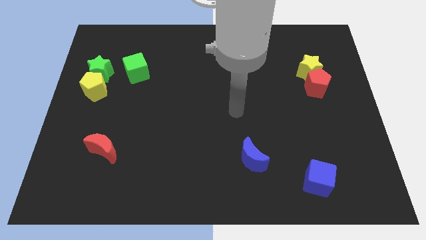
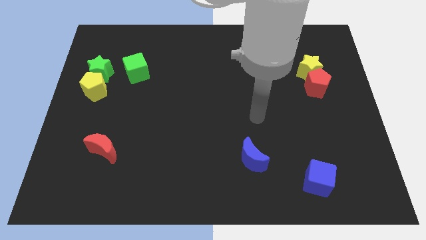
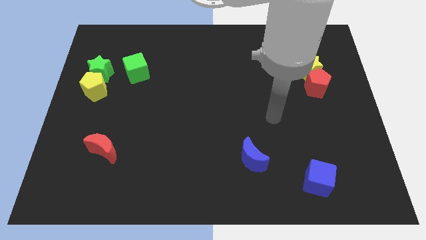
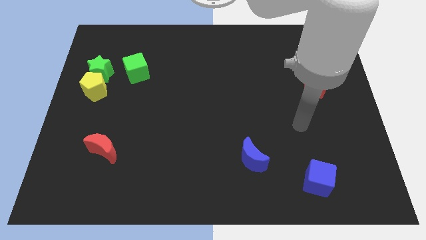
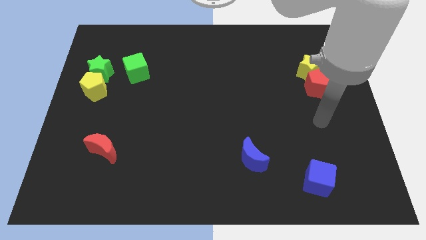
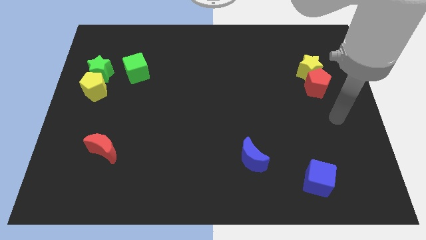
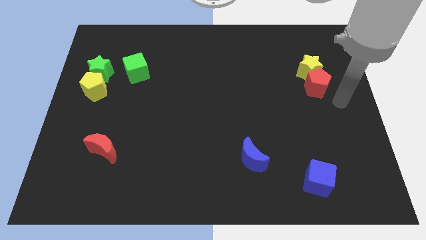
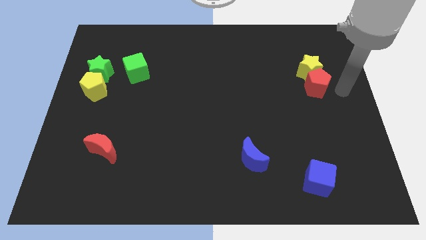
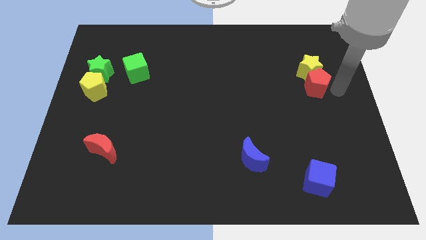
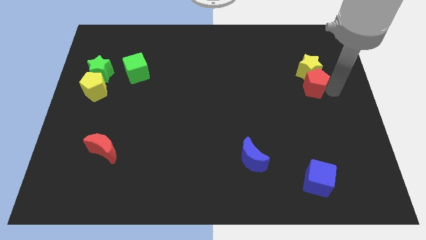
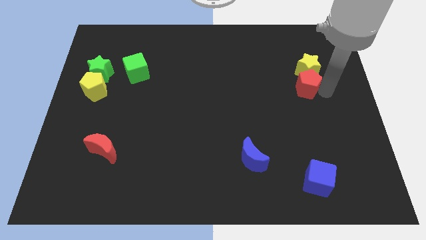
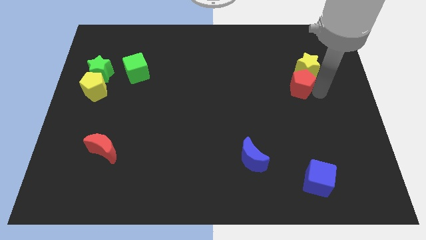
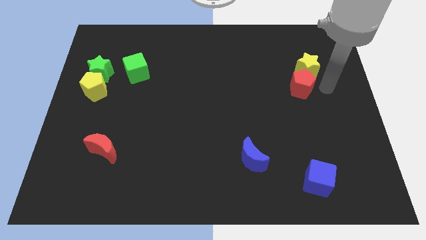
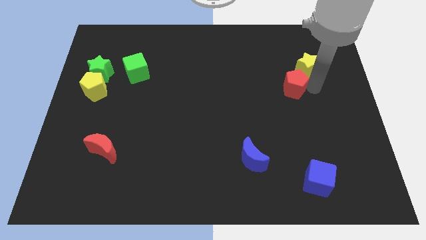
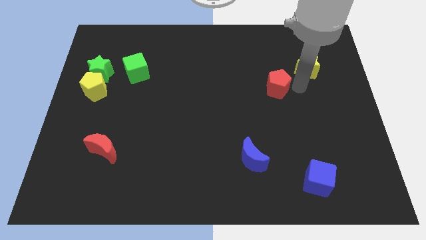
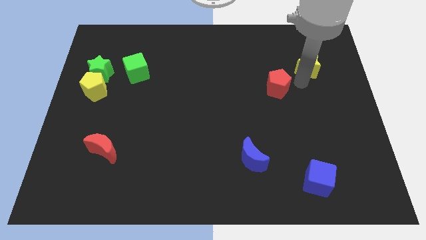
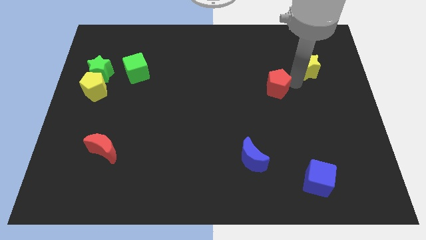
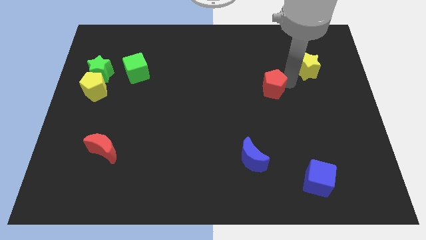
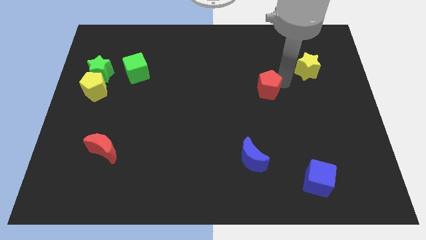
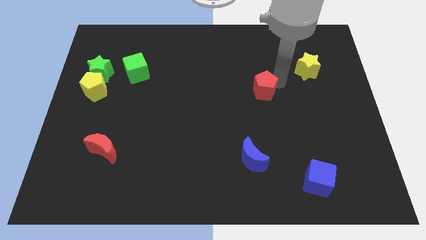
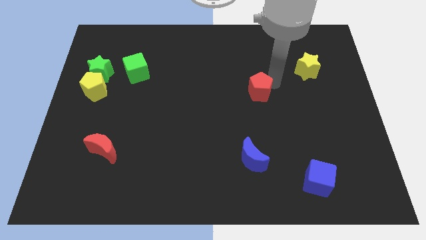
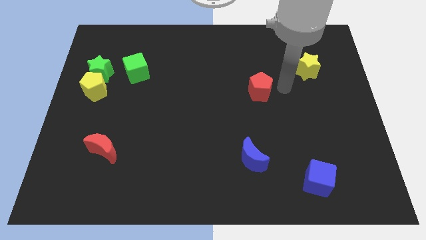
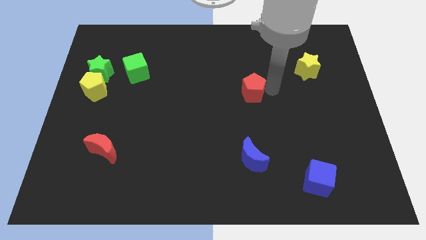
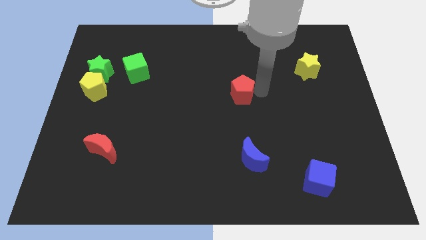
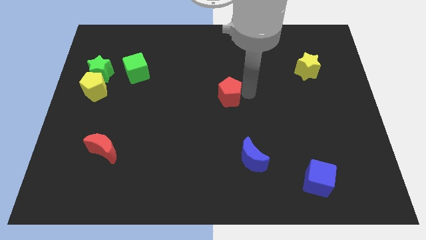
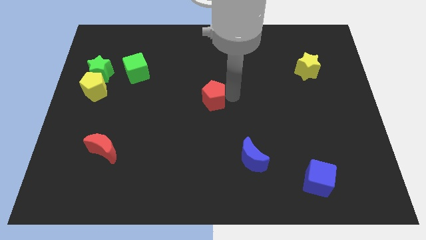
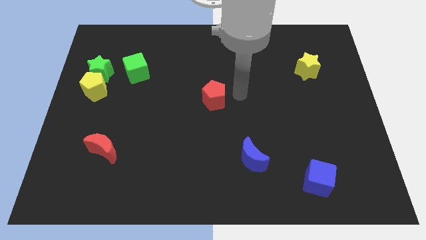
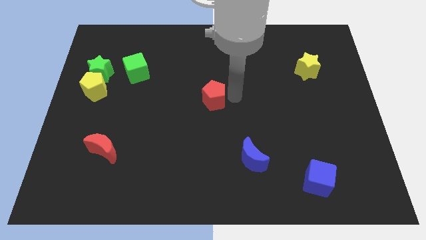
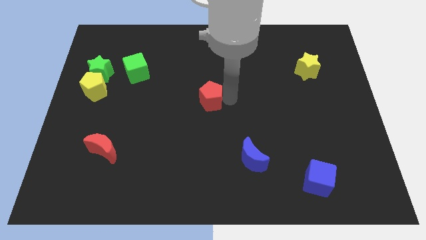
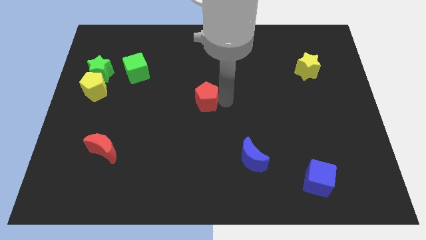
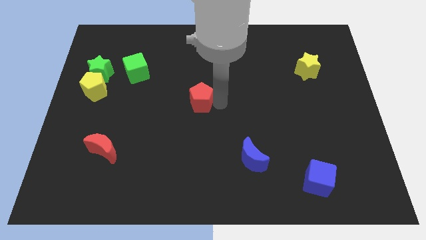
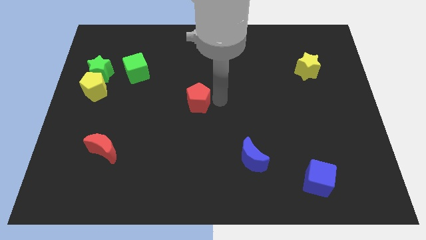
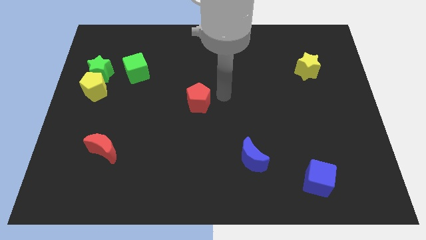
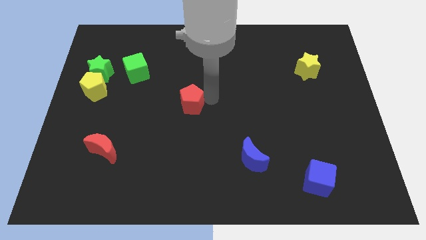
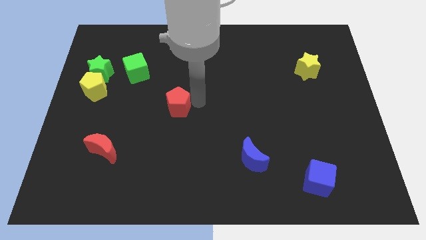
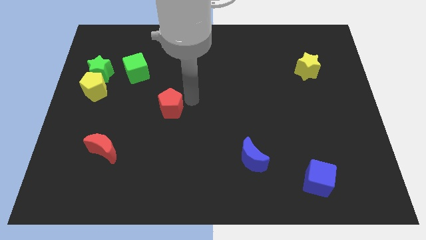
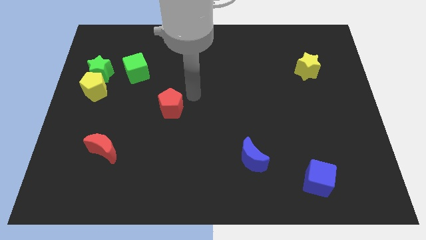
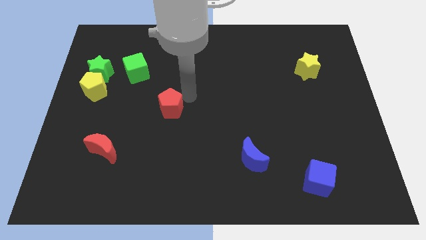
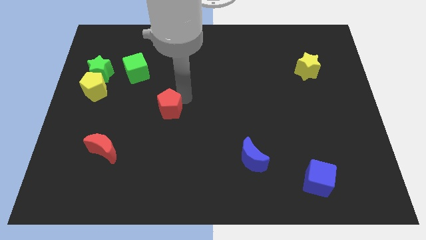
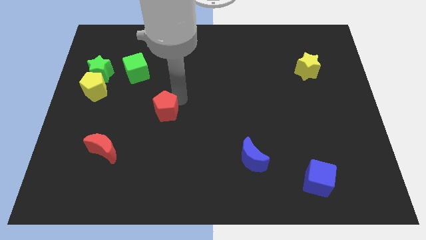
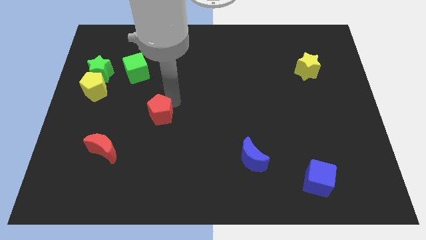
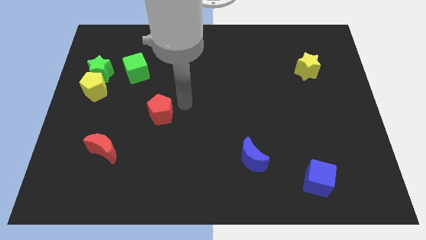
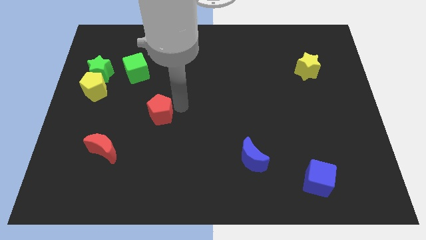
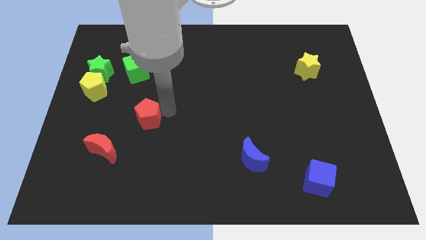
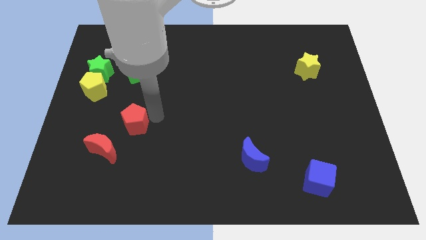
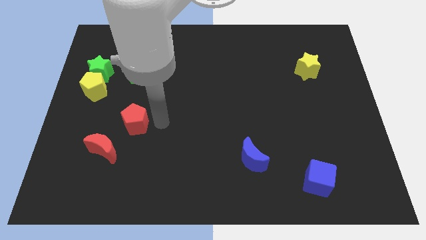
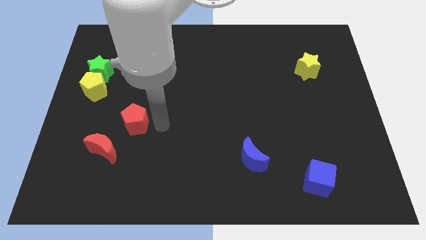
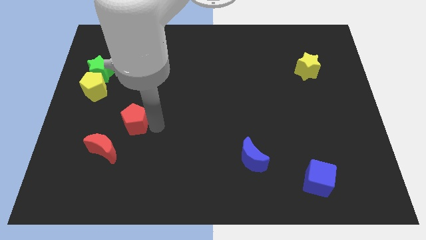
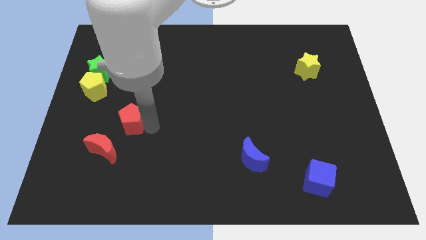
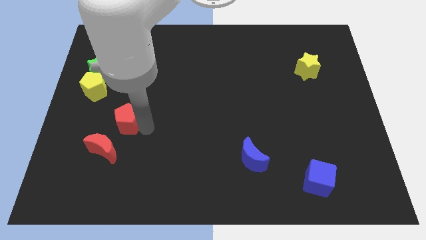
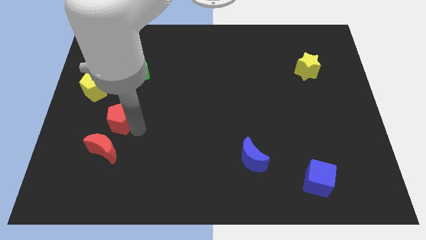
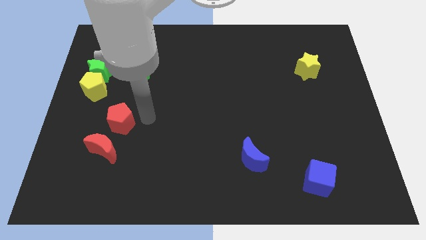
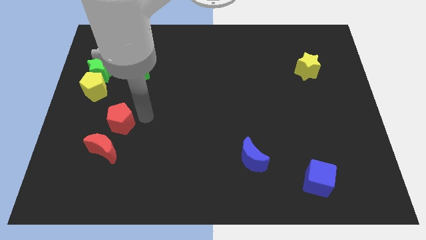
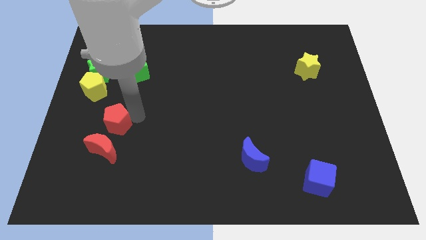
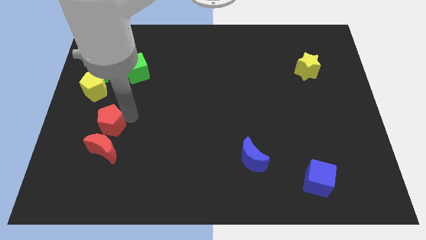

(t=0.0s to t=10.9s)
push the red pentagon to the top left of the red moon

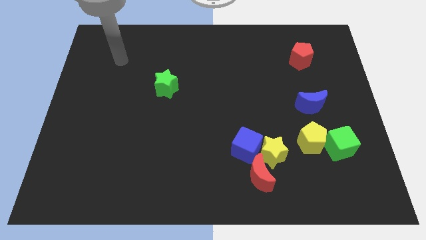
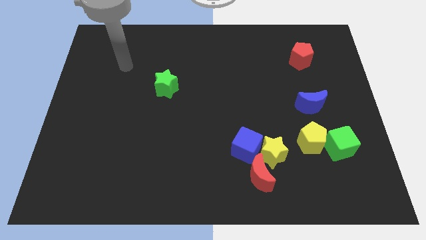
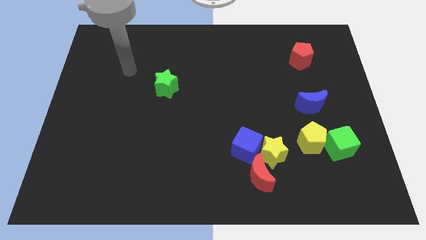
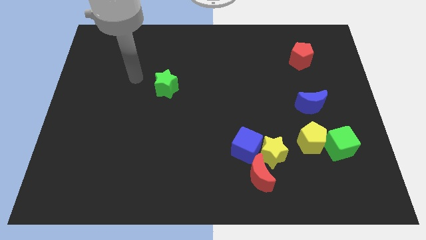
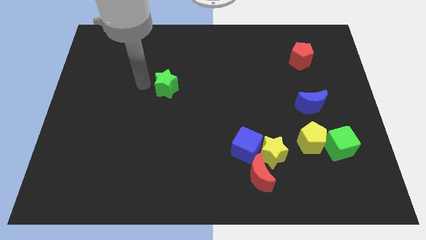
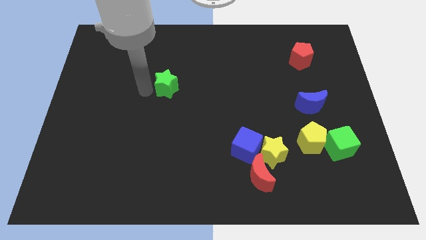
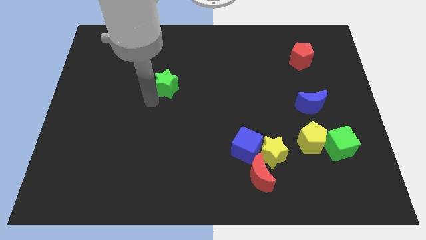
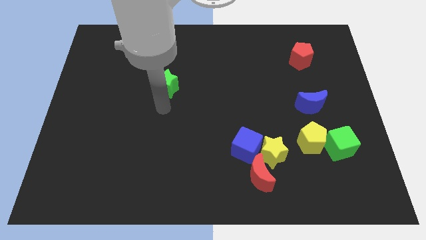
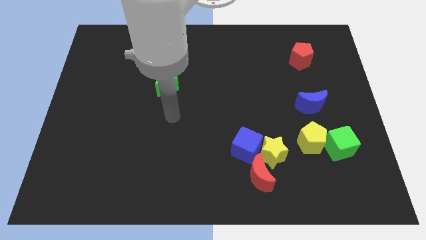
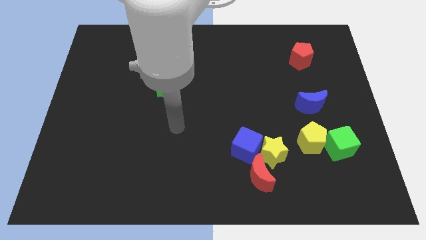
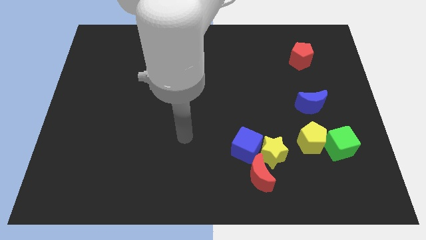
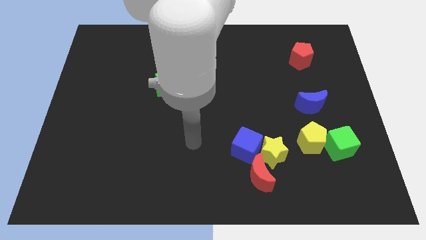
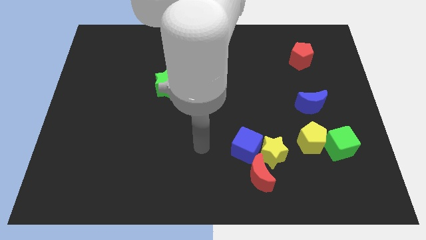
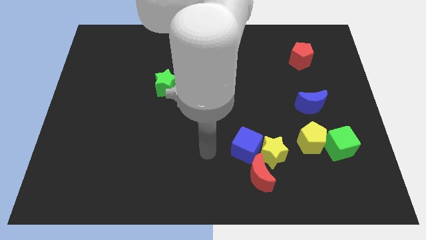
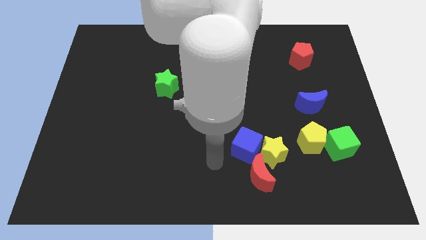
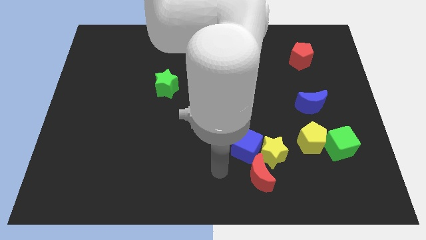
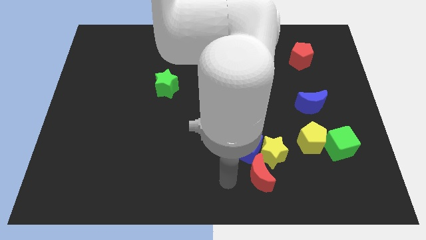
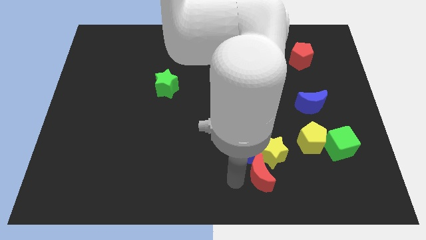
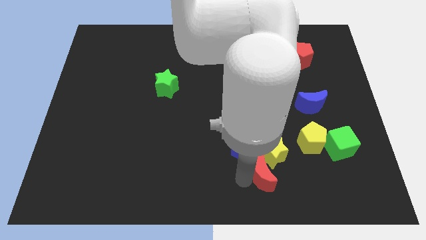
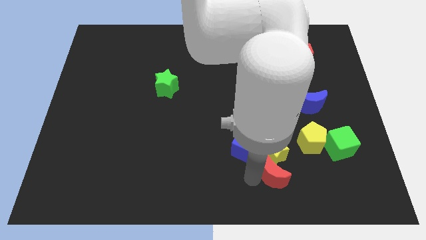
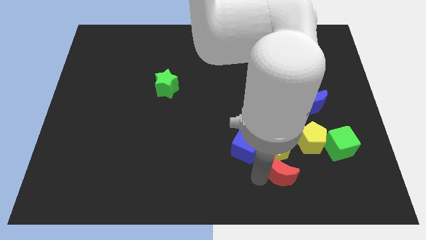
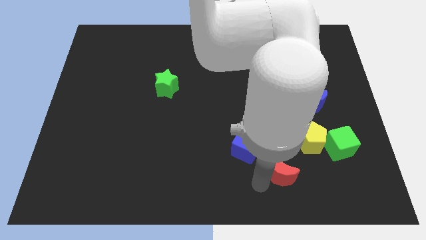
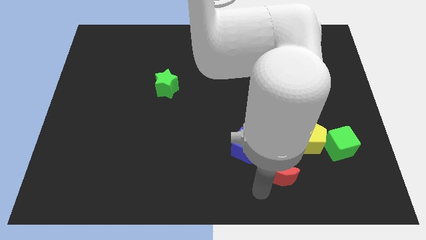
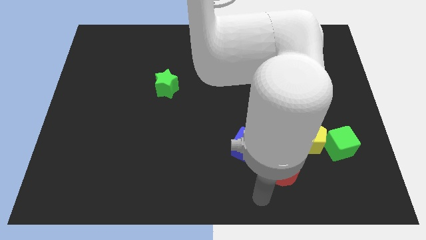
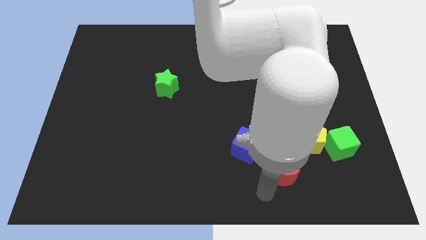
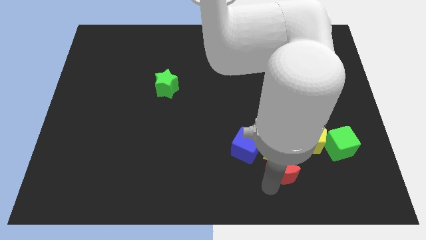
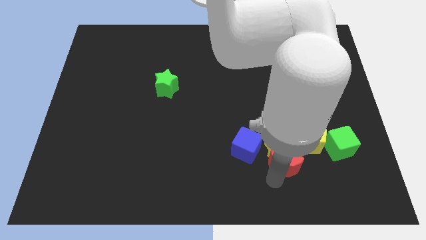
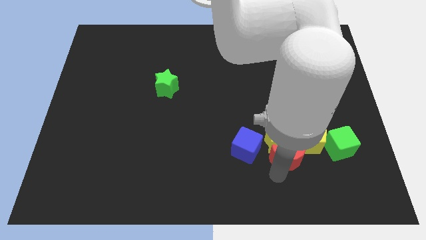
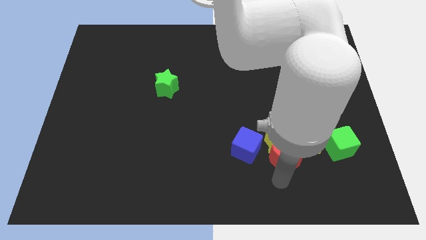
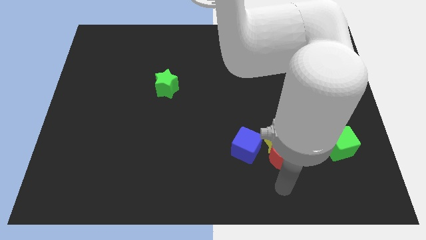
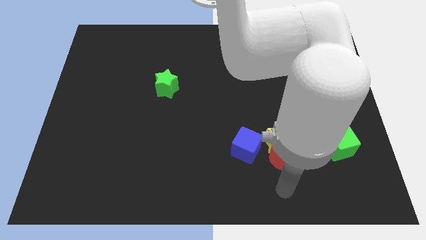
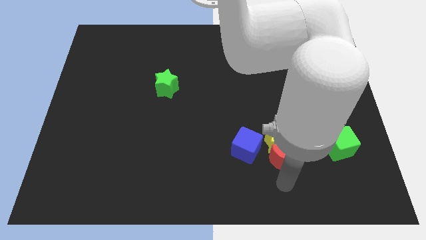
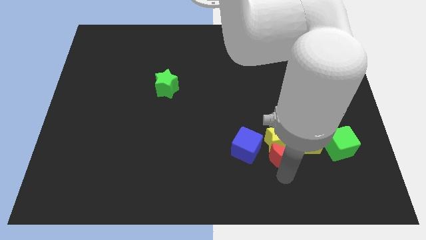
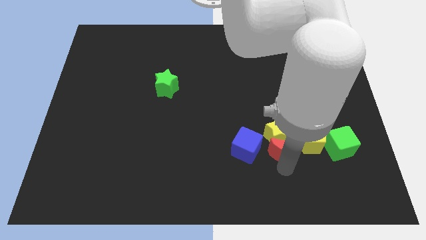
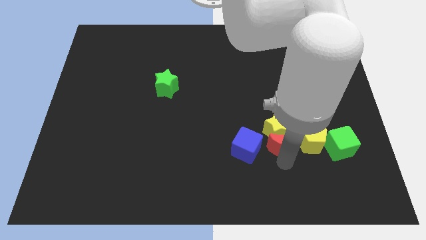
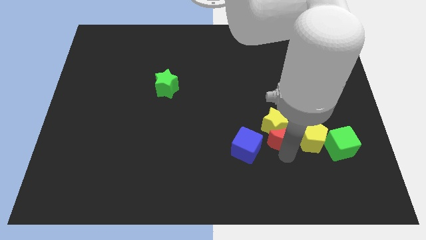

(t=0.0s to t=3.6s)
put the red moon to the top right side of the blue cube
